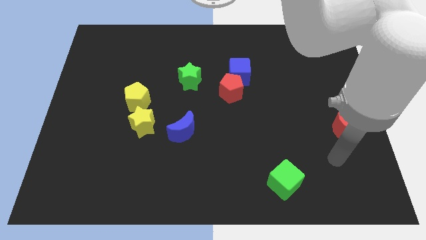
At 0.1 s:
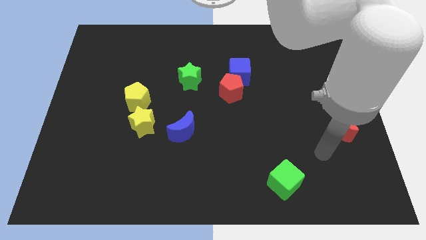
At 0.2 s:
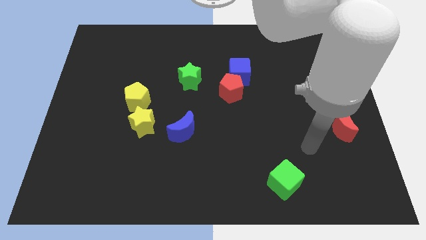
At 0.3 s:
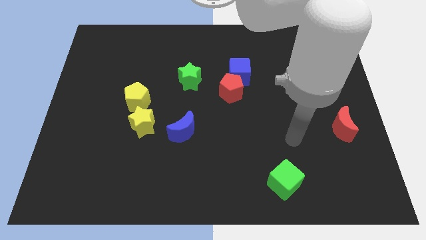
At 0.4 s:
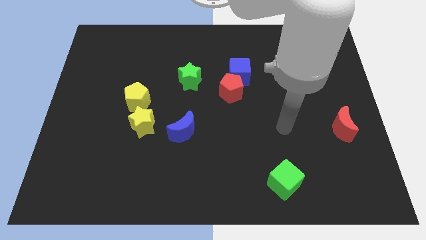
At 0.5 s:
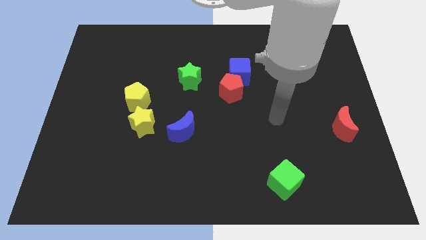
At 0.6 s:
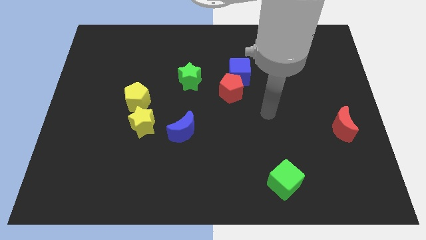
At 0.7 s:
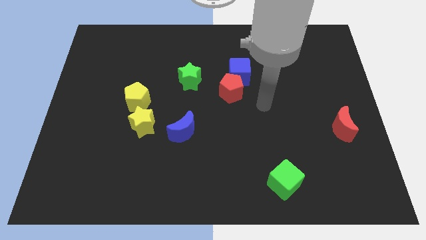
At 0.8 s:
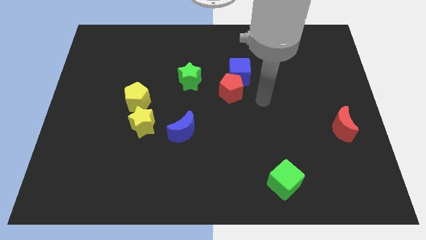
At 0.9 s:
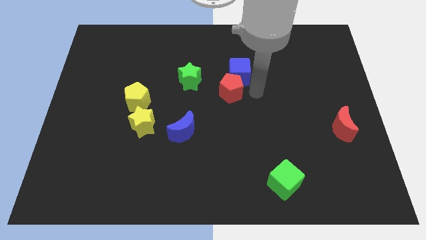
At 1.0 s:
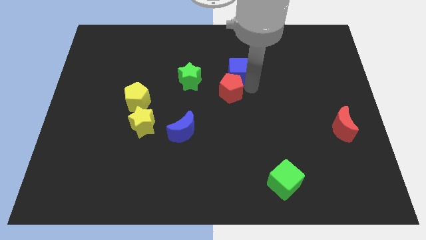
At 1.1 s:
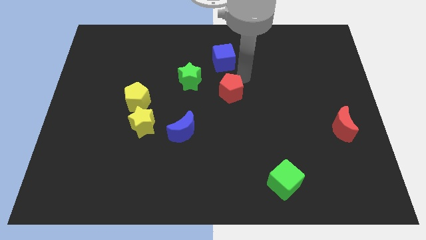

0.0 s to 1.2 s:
move the red pentagon away from the blue cube

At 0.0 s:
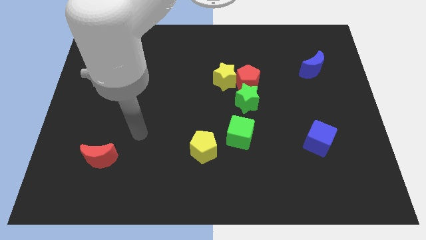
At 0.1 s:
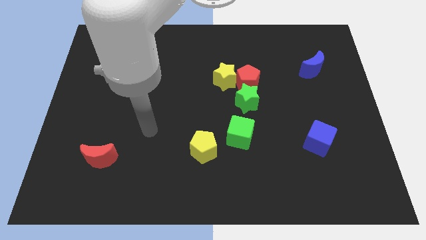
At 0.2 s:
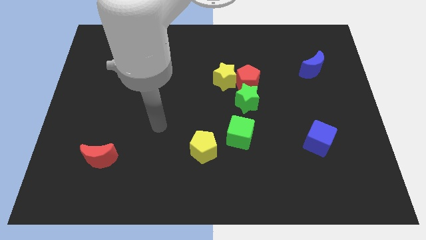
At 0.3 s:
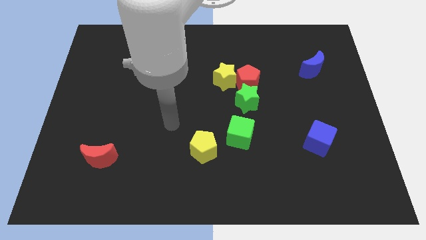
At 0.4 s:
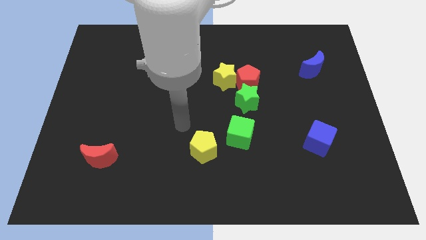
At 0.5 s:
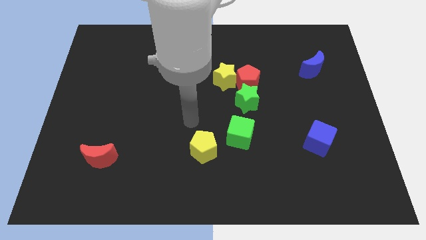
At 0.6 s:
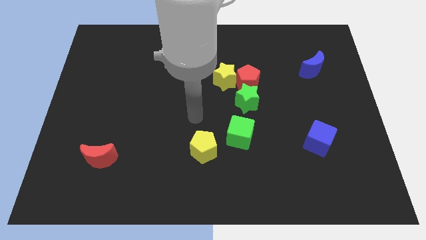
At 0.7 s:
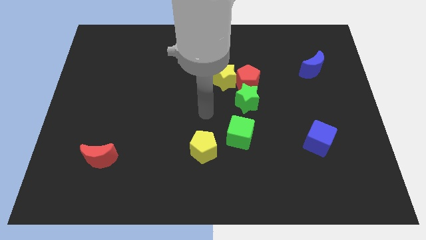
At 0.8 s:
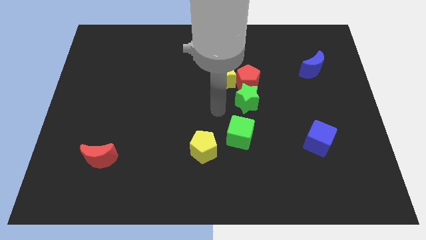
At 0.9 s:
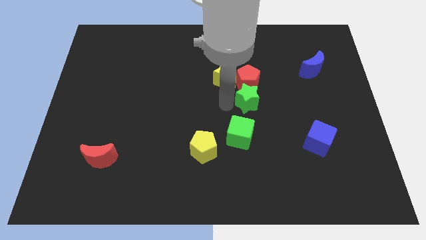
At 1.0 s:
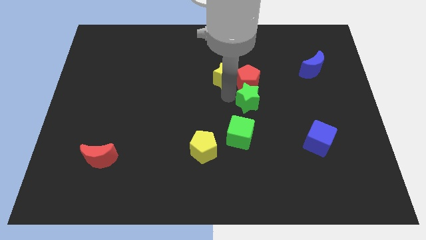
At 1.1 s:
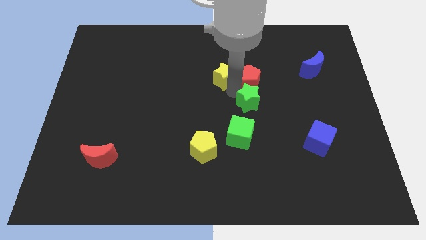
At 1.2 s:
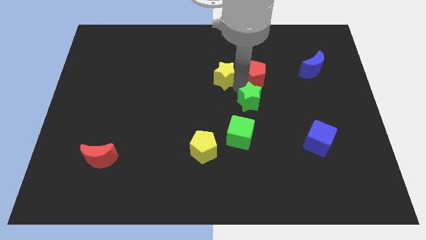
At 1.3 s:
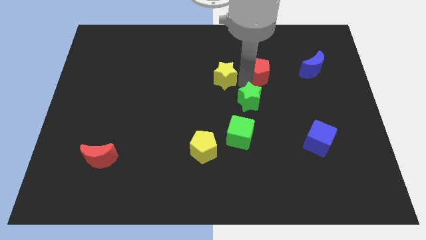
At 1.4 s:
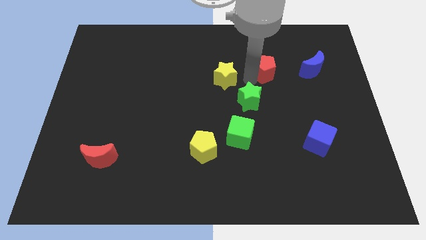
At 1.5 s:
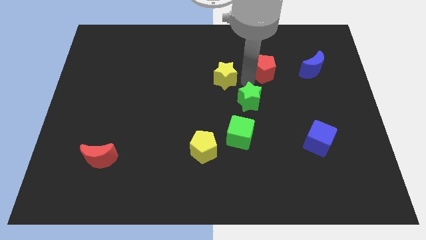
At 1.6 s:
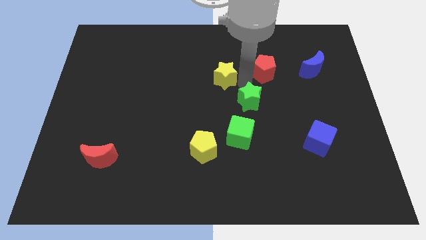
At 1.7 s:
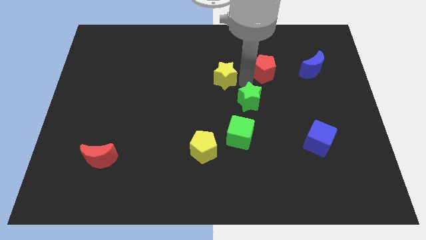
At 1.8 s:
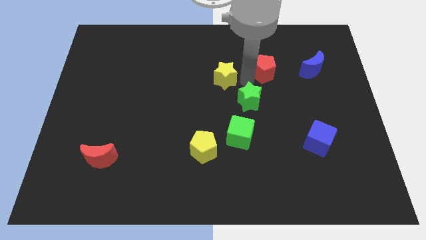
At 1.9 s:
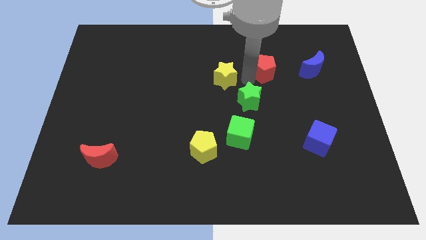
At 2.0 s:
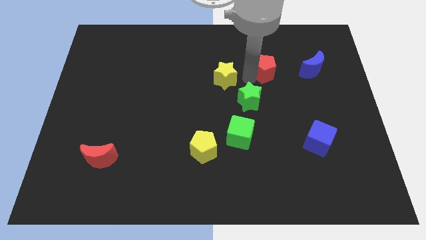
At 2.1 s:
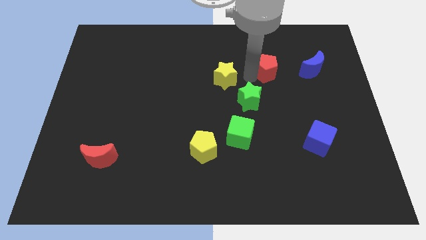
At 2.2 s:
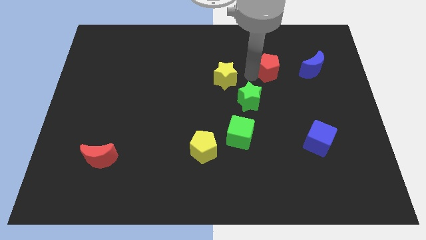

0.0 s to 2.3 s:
move the red pentagon away from the yellow star and green star

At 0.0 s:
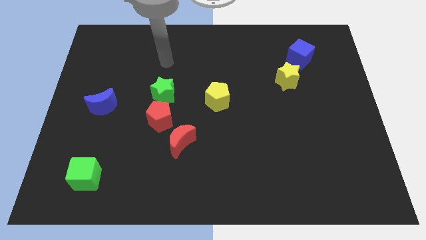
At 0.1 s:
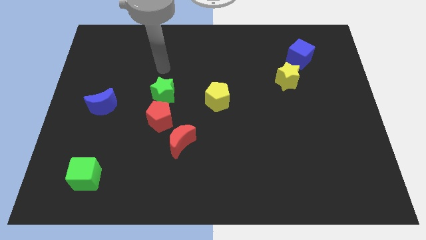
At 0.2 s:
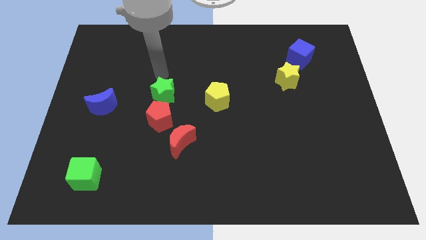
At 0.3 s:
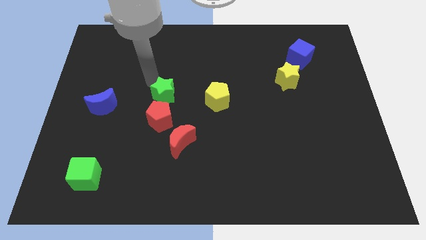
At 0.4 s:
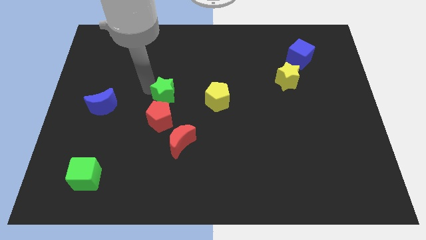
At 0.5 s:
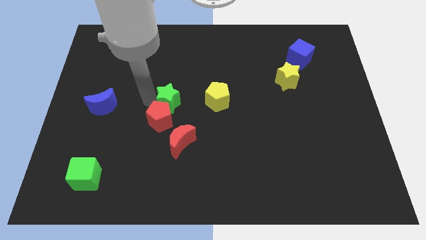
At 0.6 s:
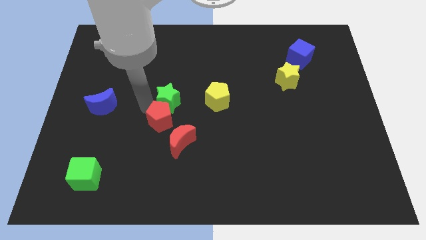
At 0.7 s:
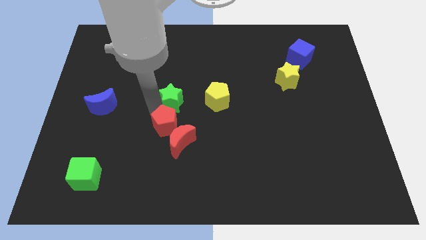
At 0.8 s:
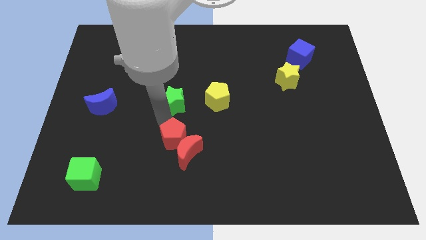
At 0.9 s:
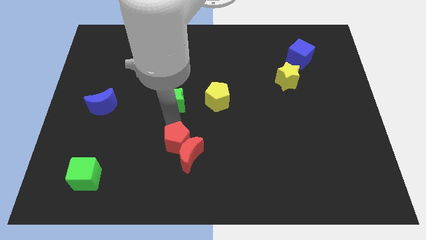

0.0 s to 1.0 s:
move the green star away from the red pentagon

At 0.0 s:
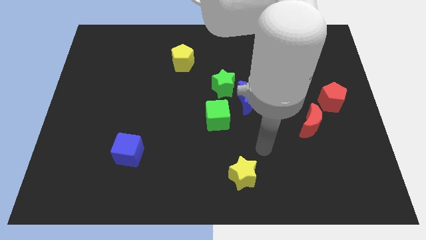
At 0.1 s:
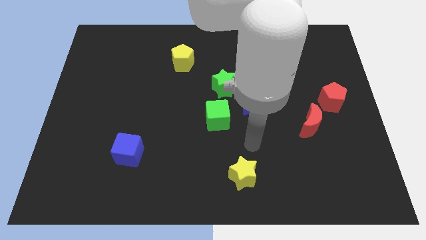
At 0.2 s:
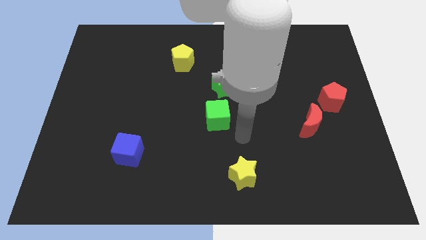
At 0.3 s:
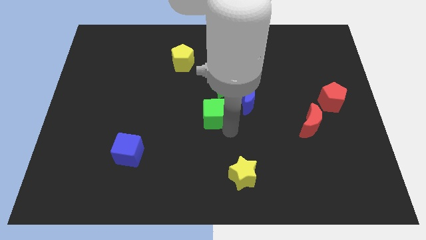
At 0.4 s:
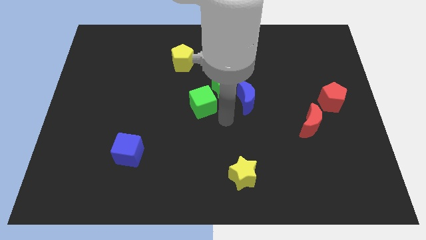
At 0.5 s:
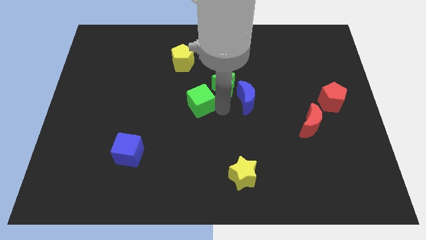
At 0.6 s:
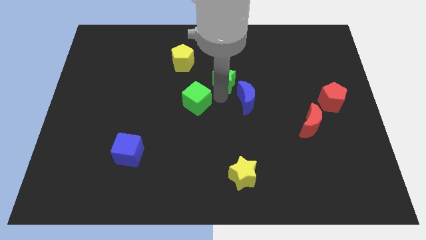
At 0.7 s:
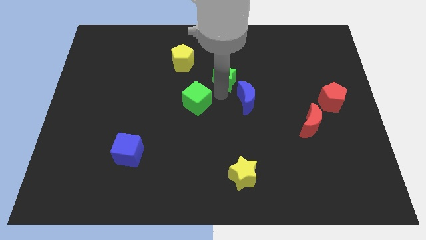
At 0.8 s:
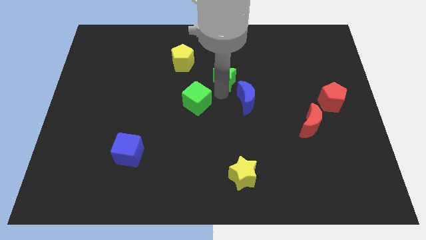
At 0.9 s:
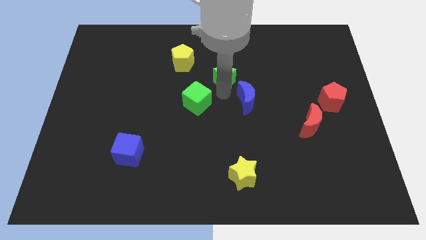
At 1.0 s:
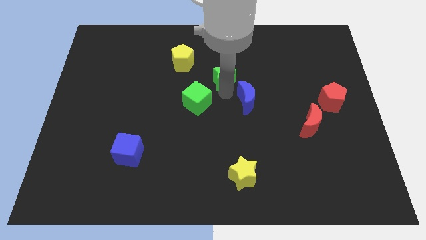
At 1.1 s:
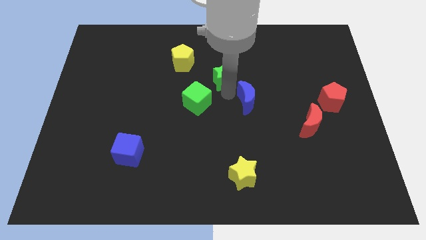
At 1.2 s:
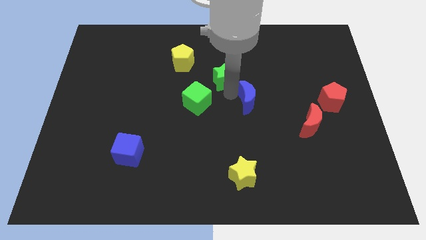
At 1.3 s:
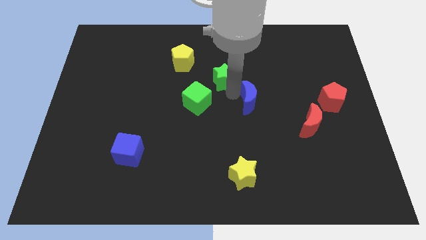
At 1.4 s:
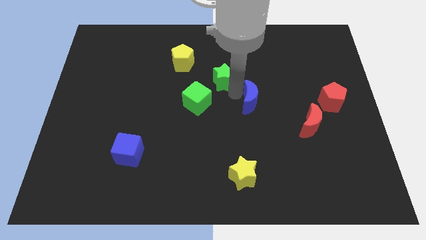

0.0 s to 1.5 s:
pull the blue moon apart from the green star and green cube

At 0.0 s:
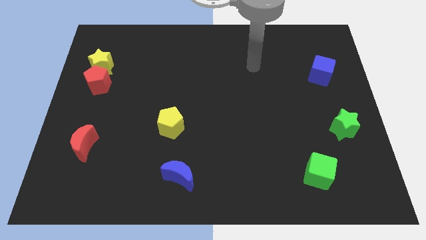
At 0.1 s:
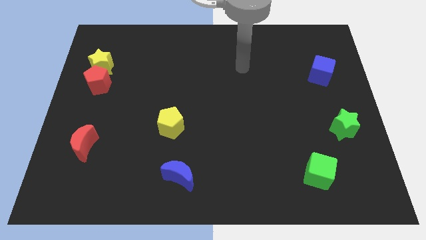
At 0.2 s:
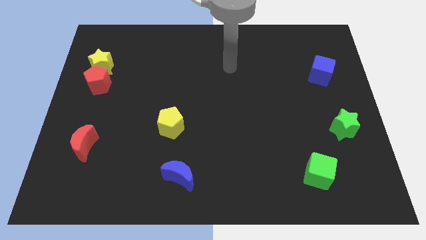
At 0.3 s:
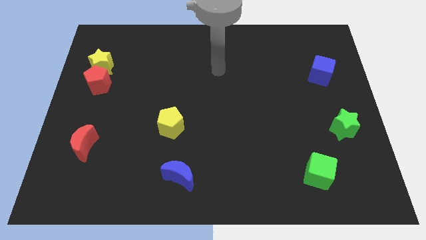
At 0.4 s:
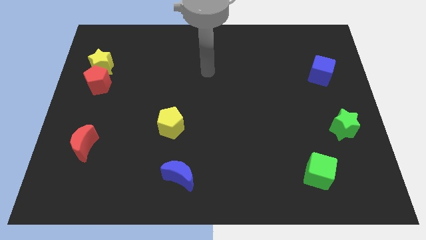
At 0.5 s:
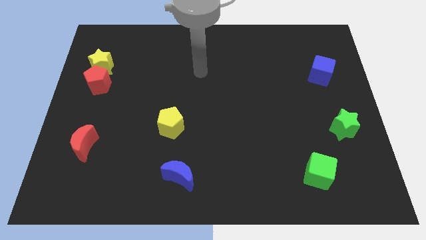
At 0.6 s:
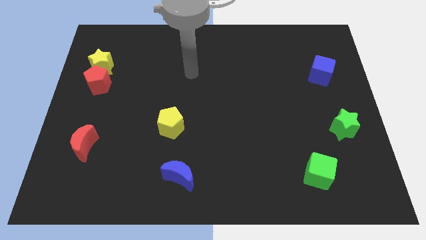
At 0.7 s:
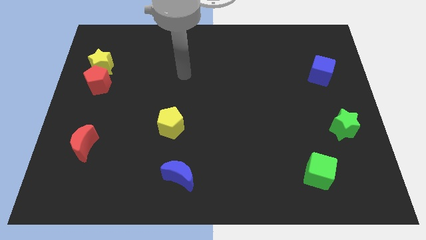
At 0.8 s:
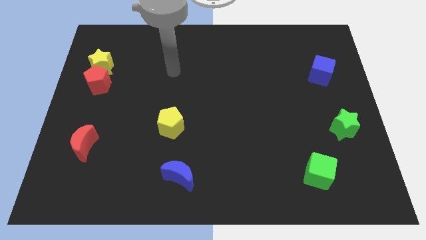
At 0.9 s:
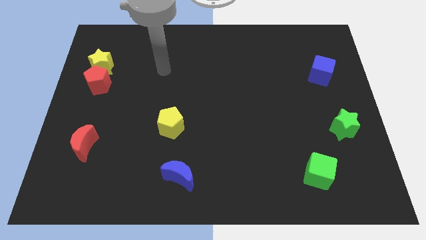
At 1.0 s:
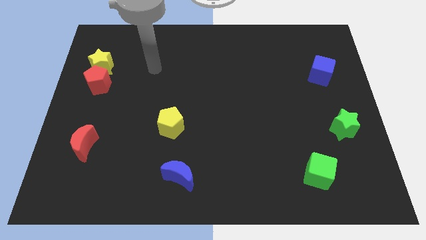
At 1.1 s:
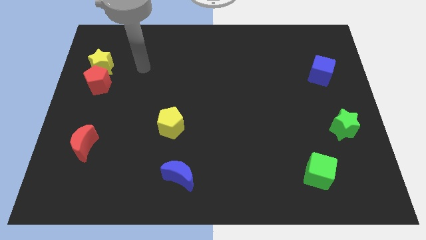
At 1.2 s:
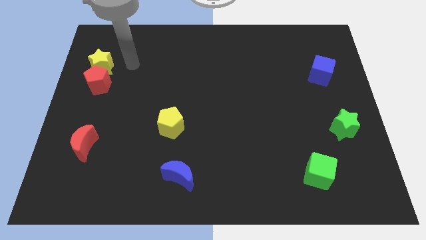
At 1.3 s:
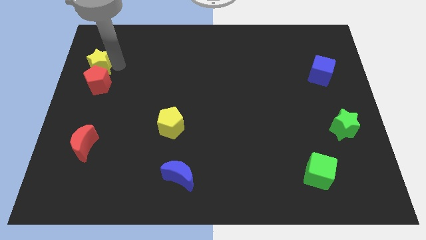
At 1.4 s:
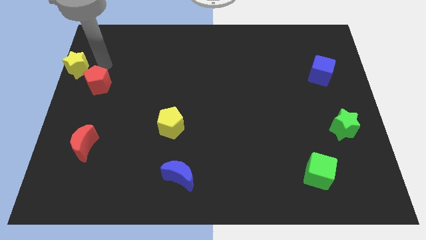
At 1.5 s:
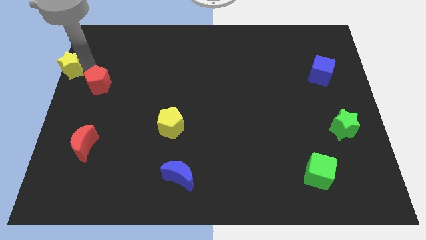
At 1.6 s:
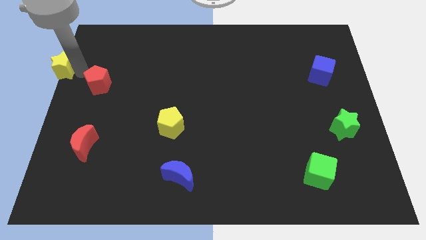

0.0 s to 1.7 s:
pull the red pentagon apart from the yellow star

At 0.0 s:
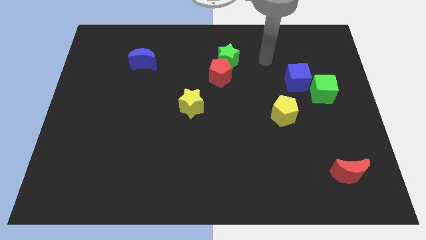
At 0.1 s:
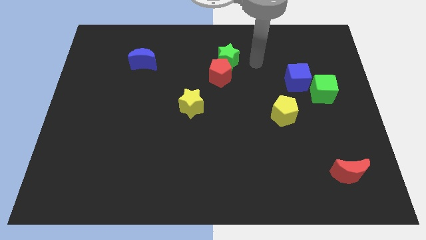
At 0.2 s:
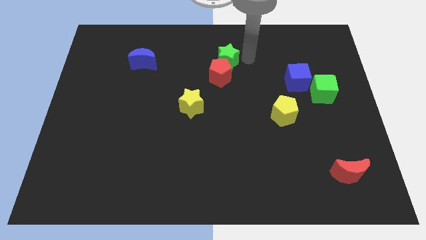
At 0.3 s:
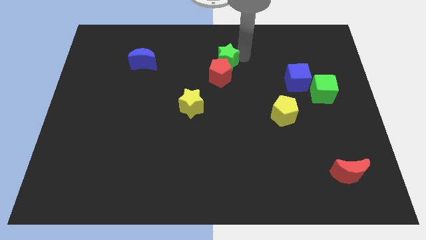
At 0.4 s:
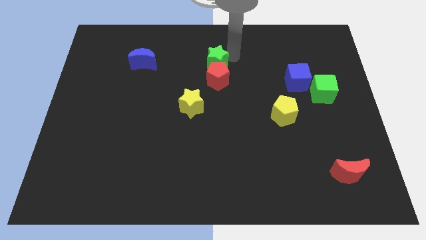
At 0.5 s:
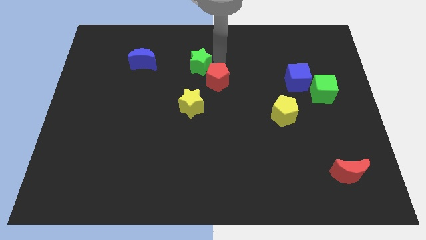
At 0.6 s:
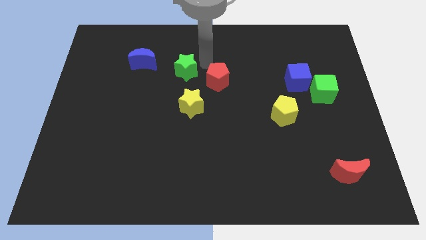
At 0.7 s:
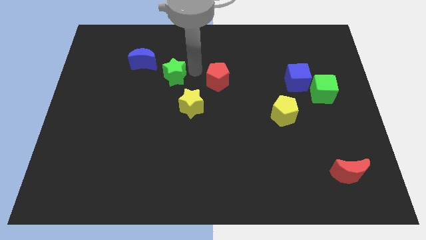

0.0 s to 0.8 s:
separate the red pentagon from the green star

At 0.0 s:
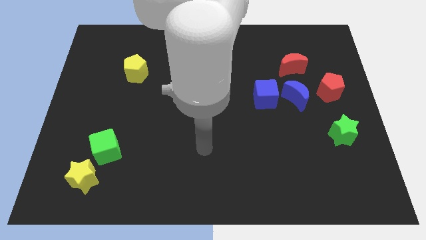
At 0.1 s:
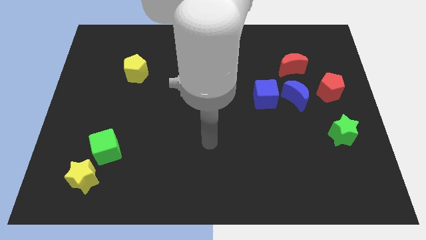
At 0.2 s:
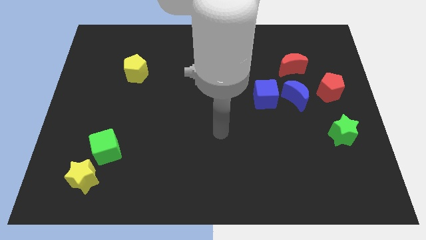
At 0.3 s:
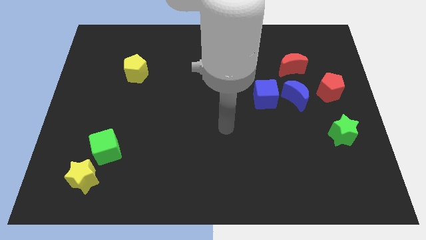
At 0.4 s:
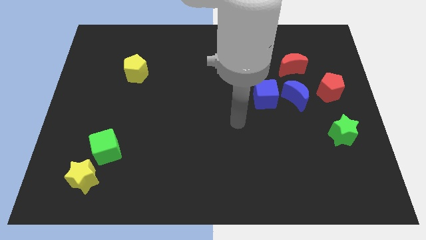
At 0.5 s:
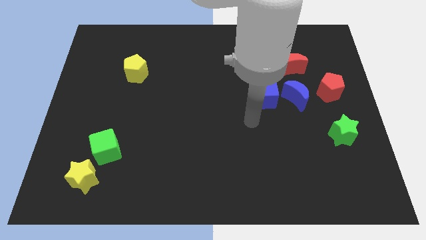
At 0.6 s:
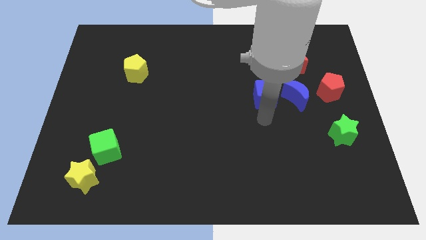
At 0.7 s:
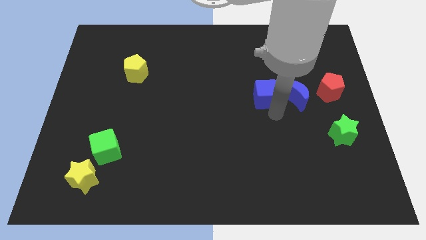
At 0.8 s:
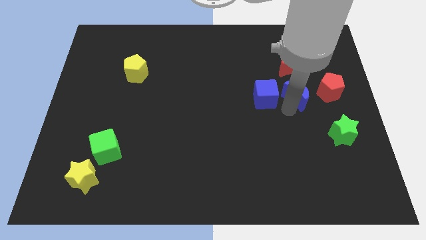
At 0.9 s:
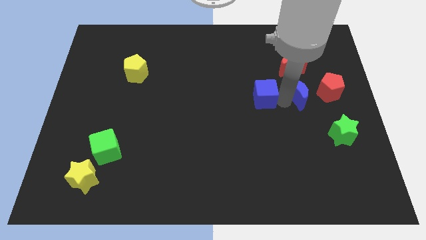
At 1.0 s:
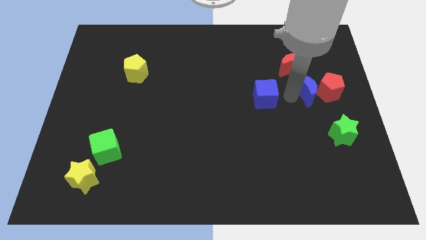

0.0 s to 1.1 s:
pull the blue cube apart from the blue moon
